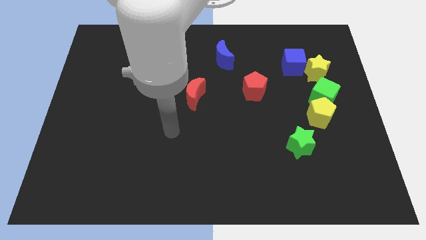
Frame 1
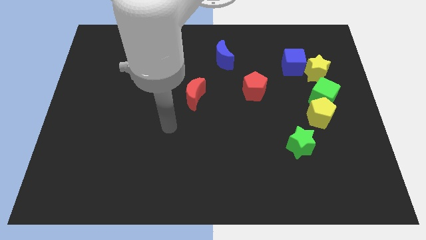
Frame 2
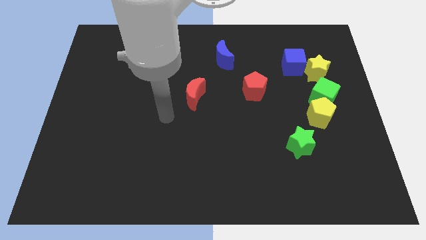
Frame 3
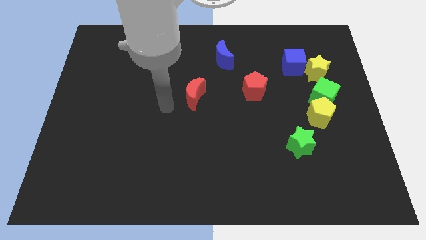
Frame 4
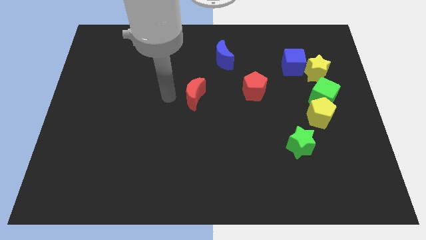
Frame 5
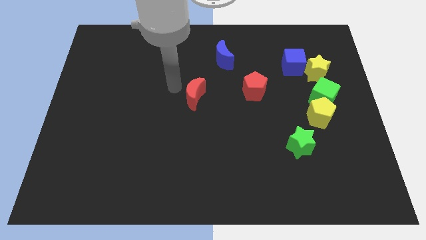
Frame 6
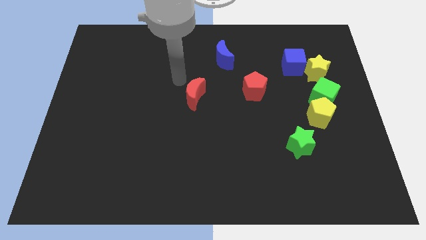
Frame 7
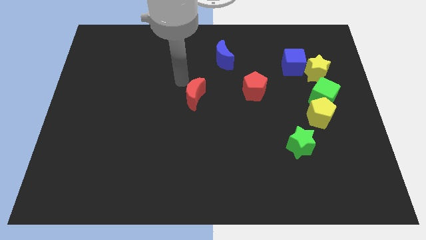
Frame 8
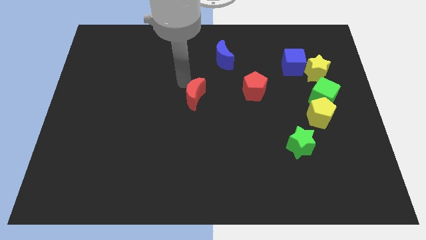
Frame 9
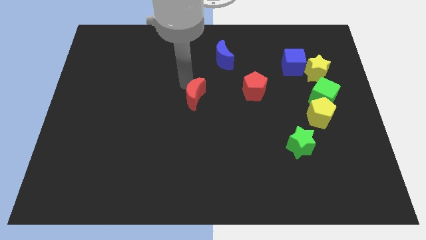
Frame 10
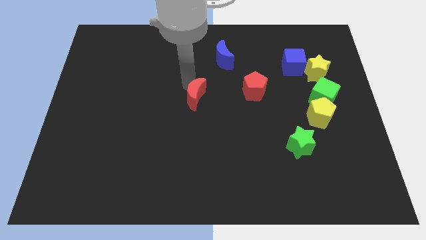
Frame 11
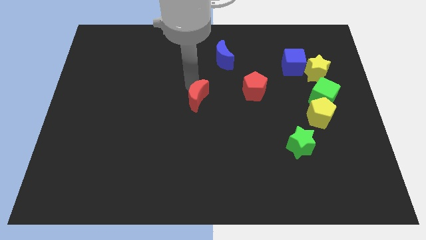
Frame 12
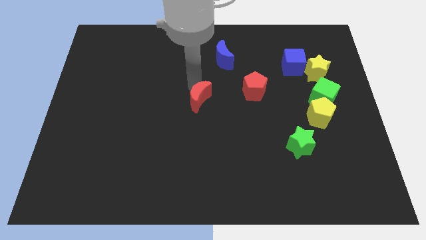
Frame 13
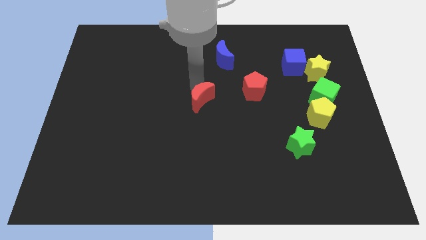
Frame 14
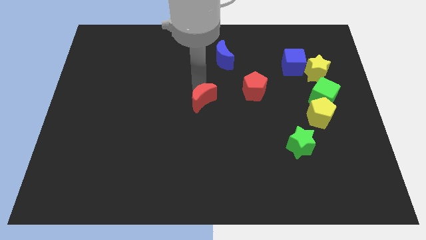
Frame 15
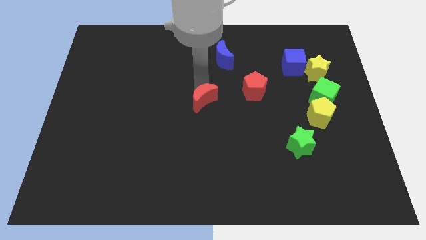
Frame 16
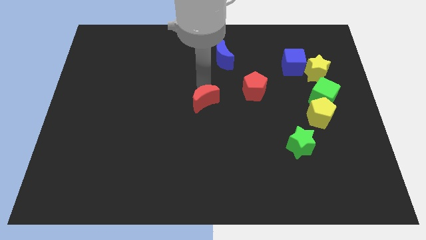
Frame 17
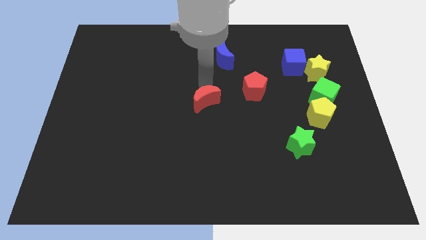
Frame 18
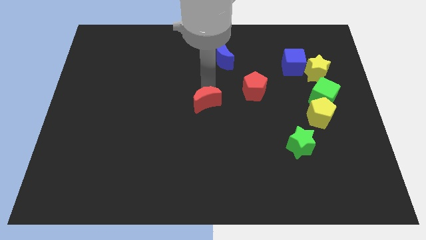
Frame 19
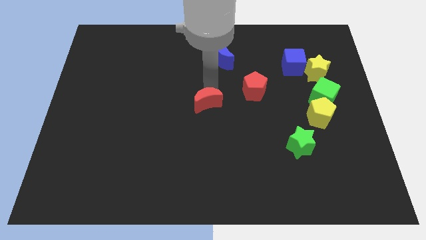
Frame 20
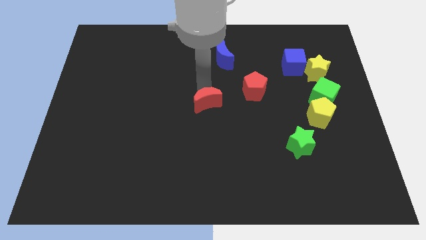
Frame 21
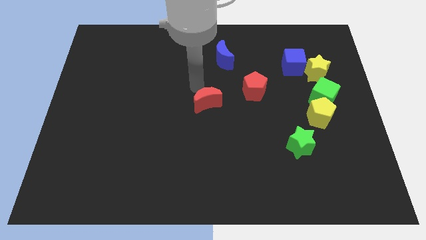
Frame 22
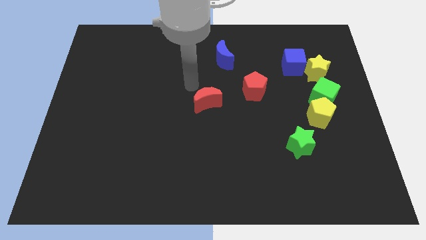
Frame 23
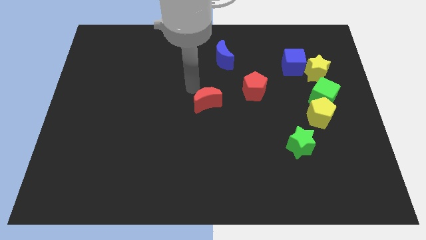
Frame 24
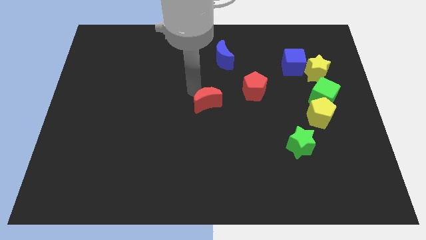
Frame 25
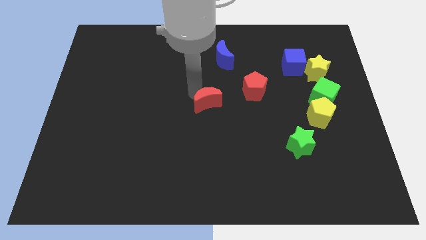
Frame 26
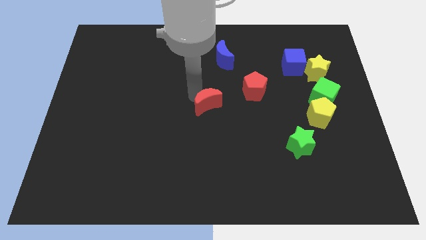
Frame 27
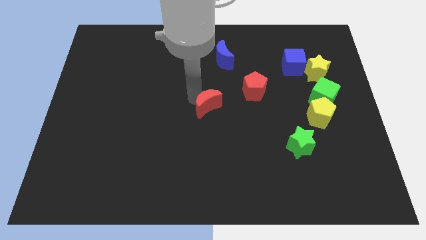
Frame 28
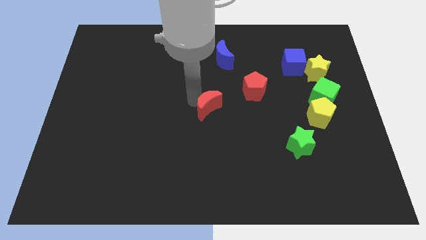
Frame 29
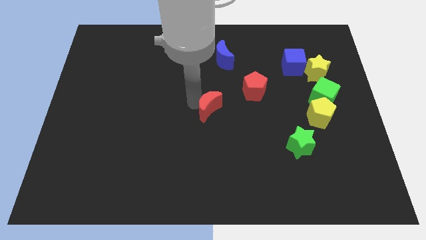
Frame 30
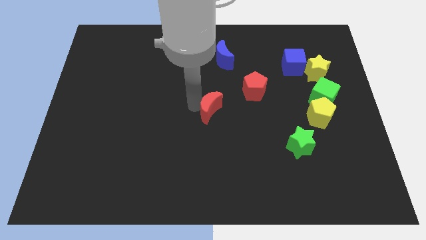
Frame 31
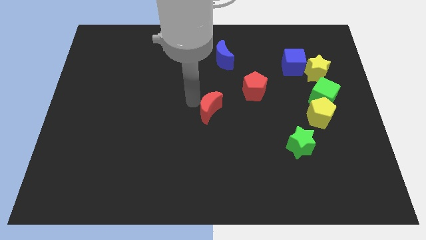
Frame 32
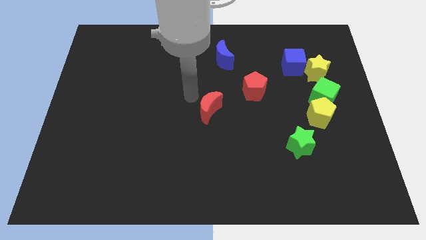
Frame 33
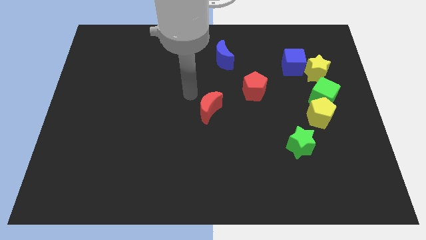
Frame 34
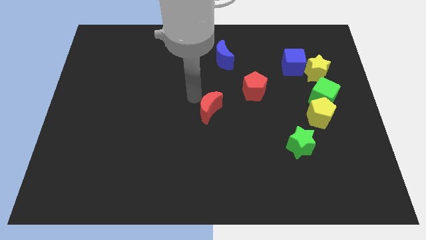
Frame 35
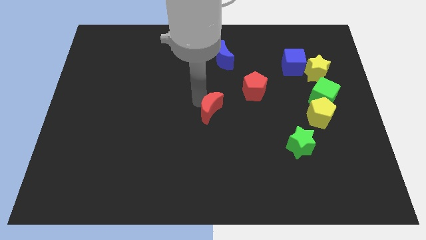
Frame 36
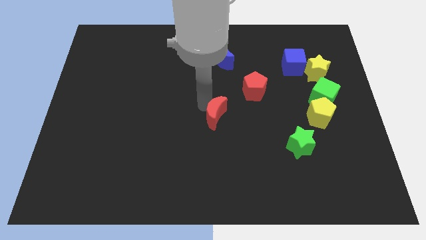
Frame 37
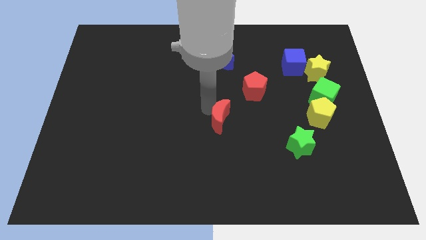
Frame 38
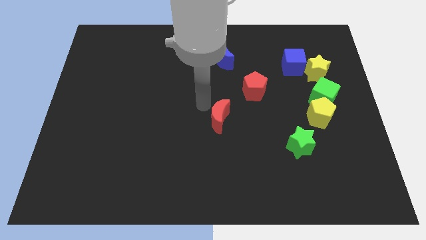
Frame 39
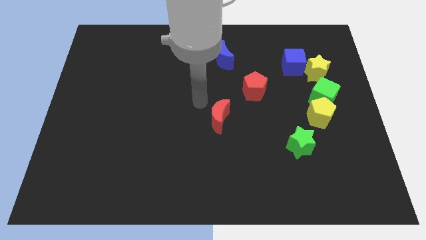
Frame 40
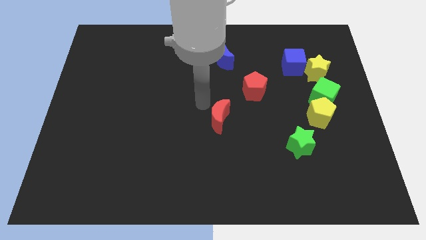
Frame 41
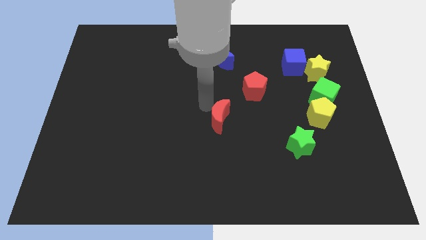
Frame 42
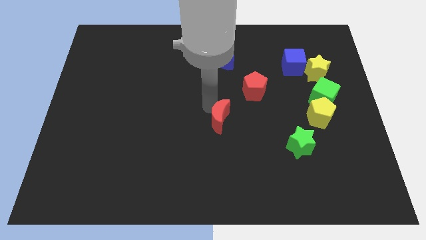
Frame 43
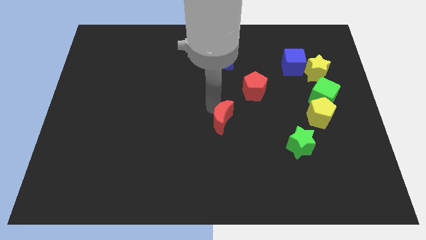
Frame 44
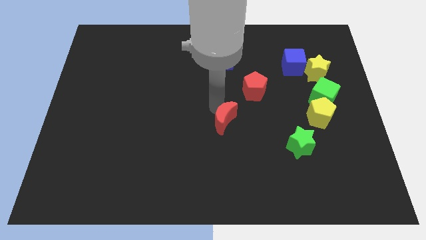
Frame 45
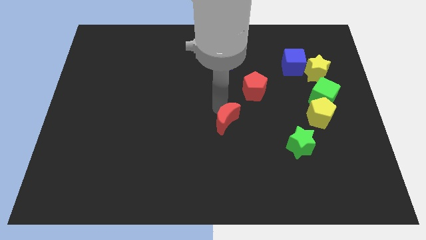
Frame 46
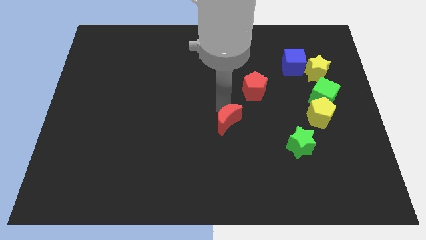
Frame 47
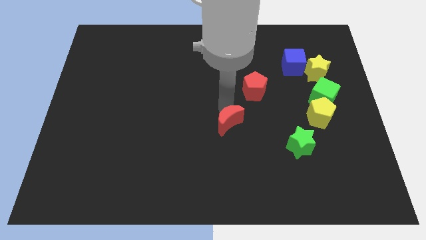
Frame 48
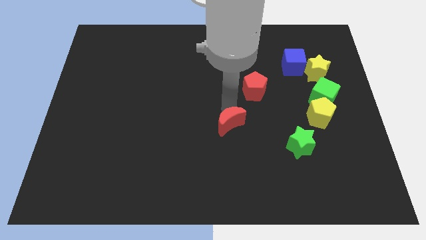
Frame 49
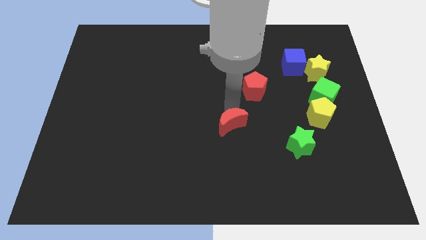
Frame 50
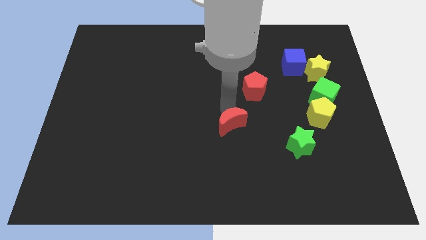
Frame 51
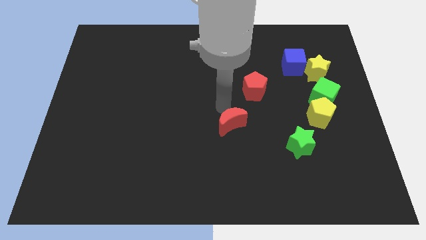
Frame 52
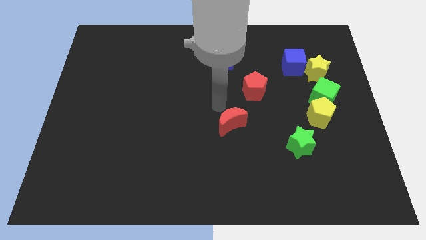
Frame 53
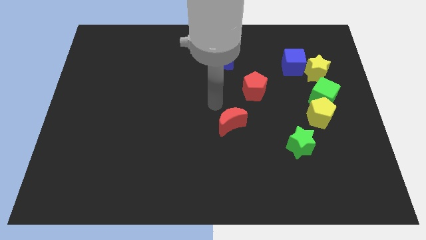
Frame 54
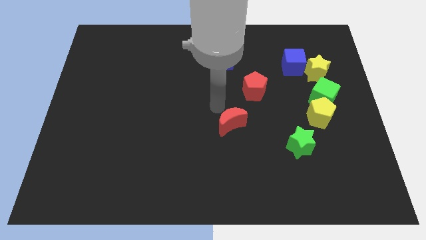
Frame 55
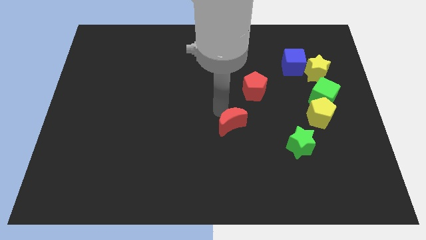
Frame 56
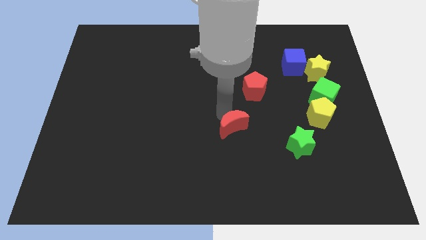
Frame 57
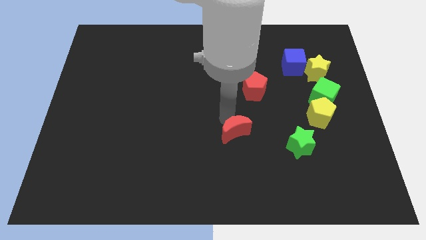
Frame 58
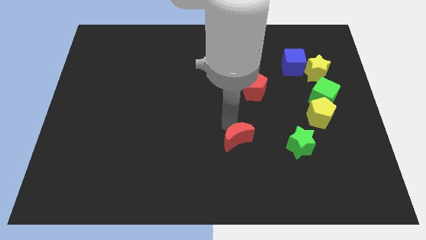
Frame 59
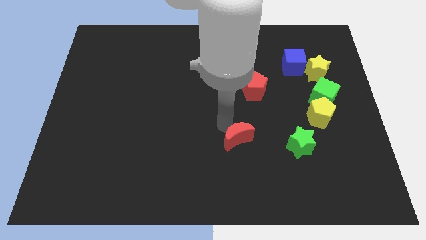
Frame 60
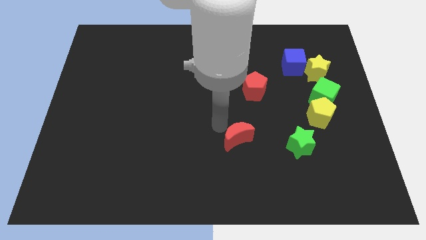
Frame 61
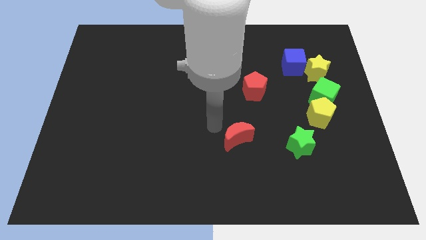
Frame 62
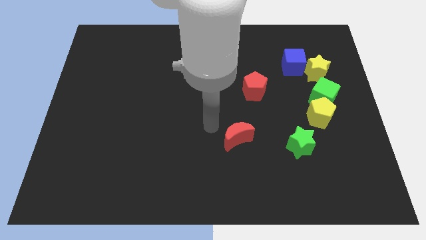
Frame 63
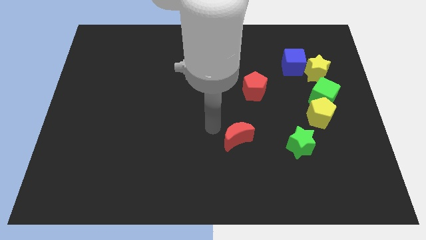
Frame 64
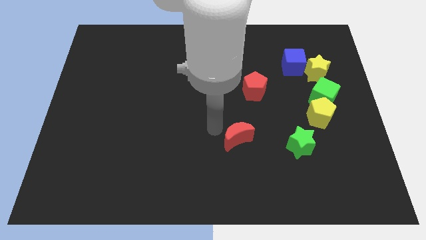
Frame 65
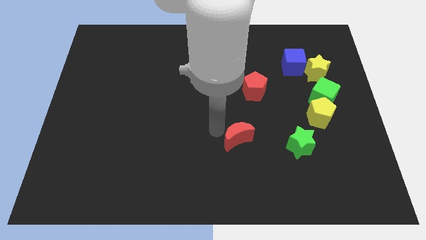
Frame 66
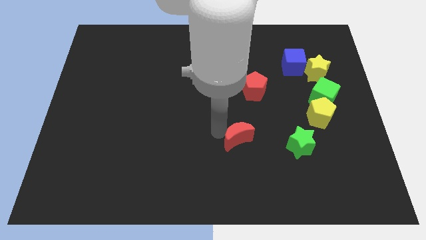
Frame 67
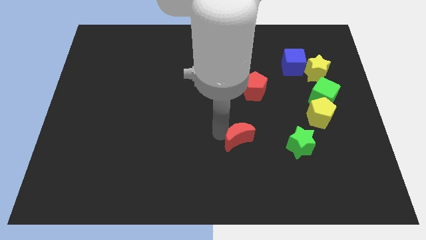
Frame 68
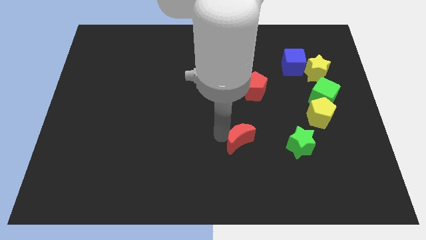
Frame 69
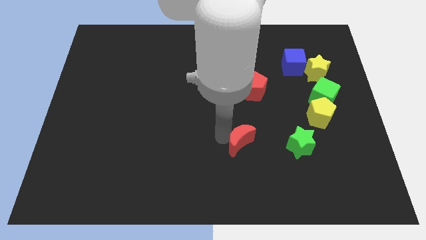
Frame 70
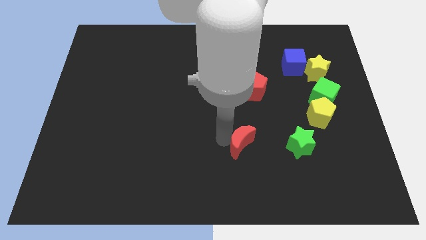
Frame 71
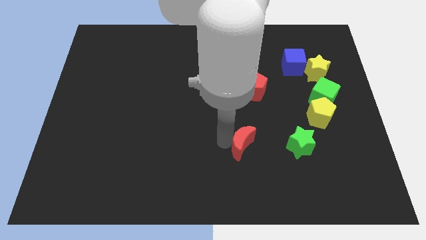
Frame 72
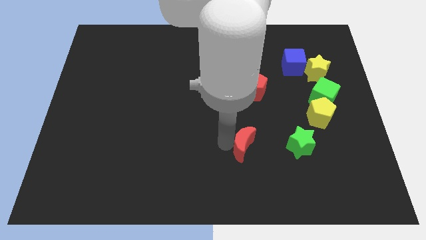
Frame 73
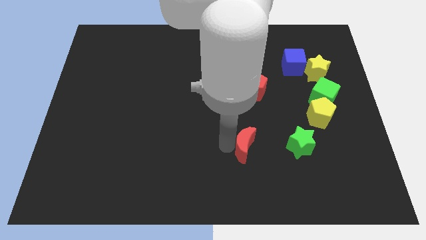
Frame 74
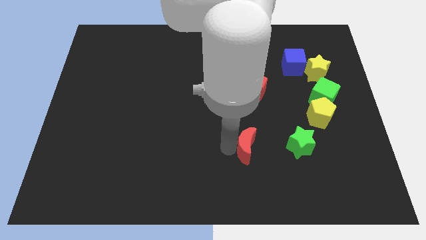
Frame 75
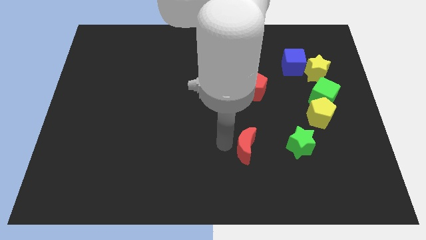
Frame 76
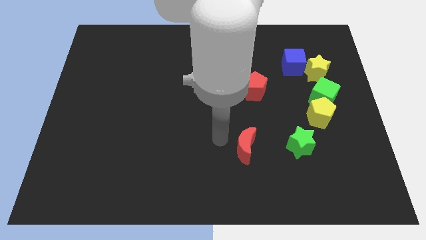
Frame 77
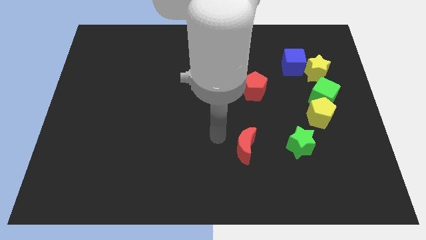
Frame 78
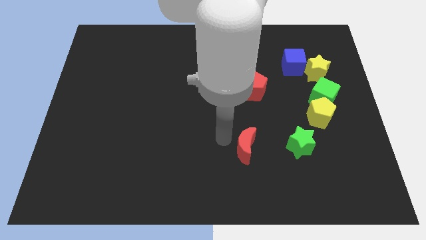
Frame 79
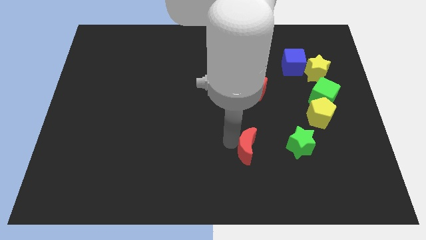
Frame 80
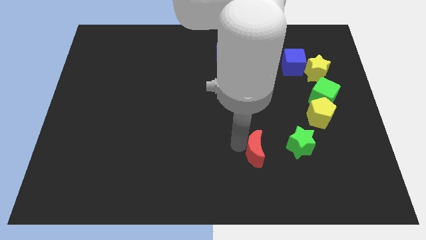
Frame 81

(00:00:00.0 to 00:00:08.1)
push the red moon down and then to the right
